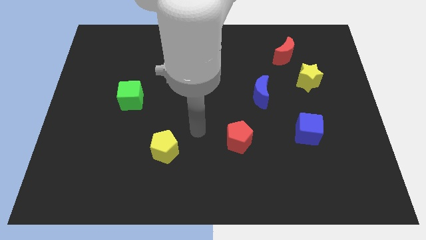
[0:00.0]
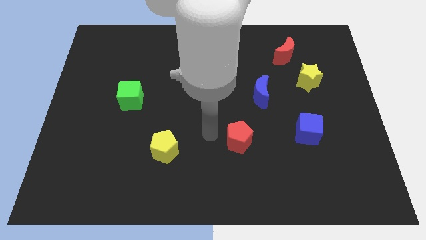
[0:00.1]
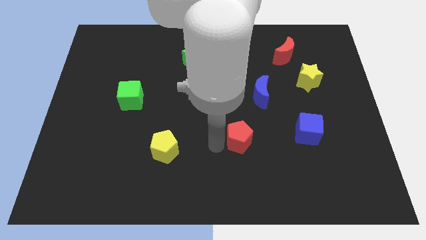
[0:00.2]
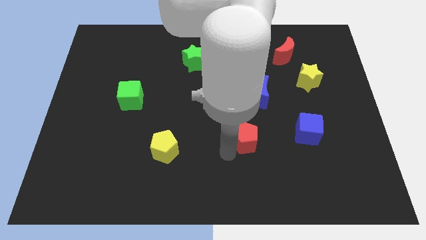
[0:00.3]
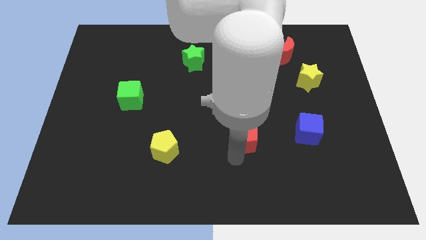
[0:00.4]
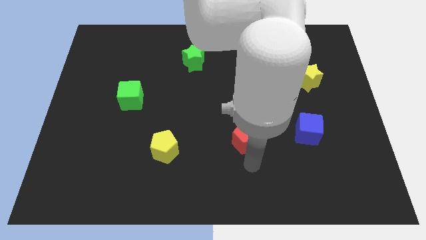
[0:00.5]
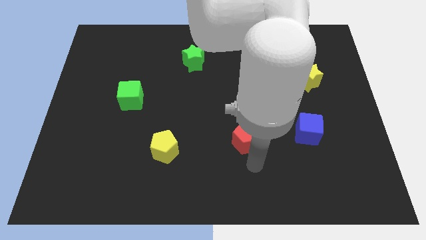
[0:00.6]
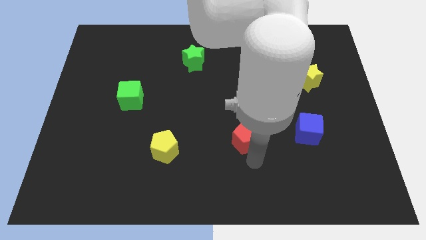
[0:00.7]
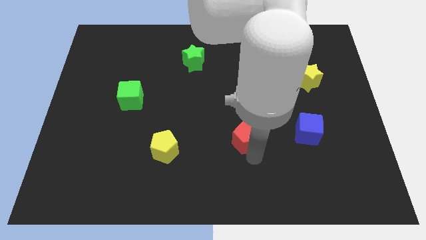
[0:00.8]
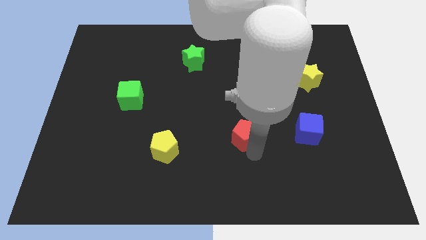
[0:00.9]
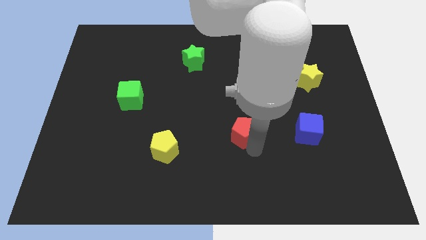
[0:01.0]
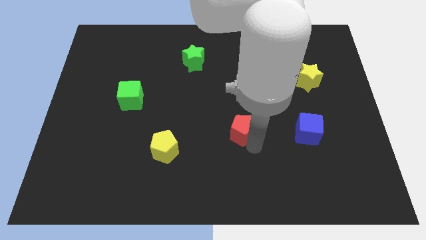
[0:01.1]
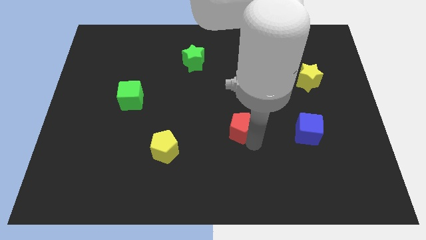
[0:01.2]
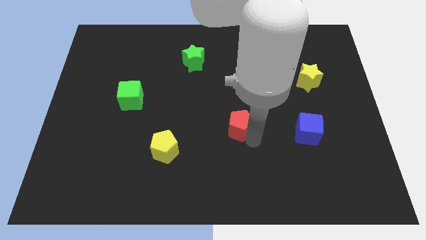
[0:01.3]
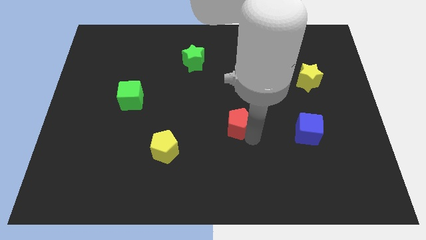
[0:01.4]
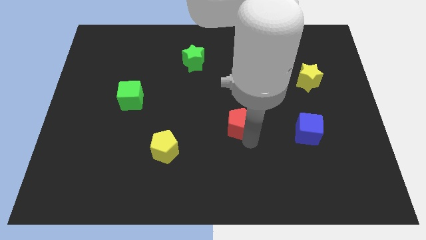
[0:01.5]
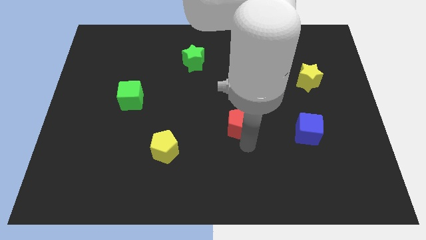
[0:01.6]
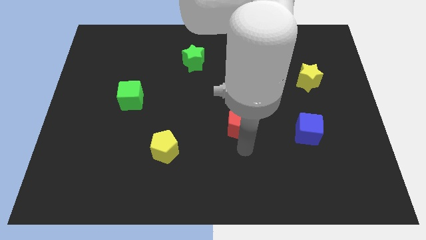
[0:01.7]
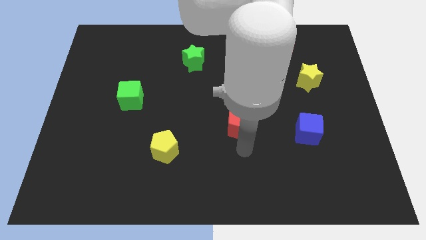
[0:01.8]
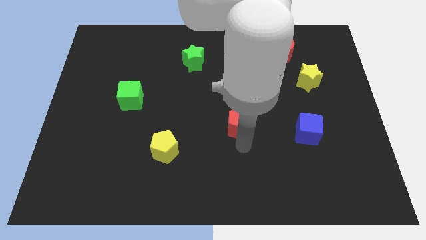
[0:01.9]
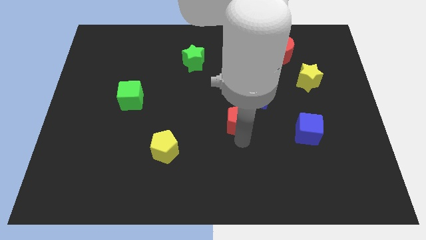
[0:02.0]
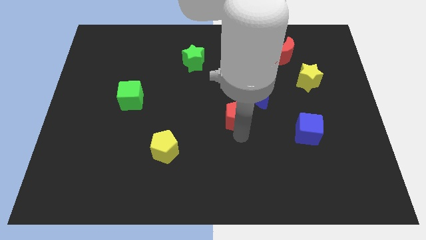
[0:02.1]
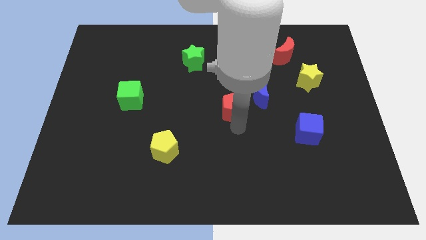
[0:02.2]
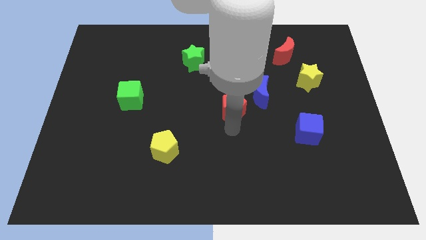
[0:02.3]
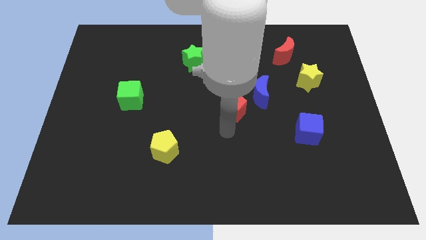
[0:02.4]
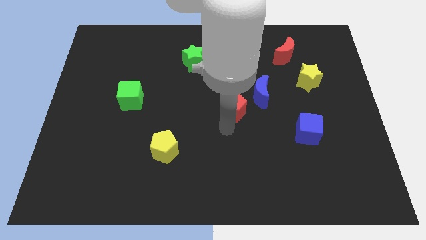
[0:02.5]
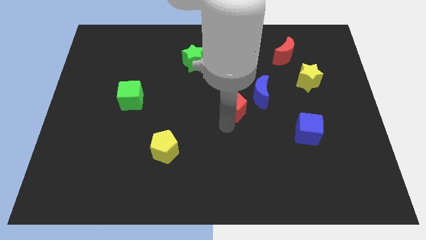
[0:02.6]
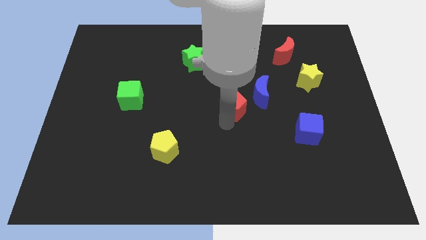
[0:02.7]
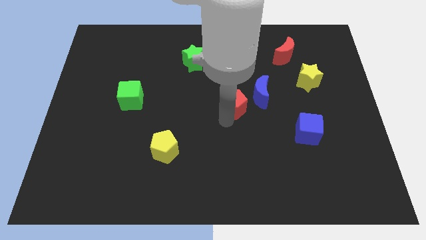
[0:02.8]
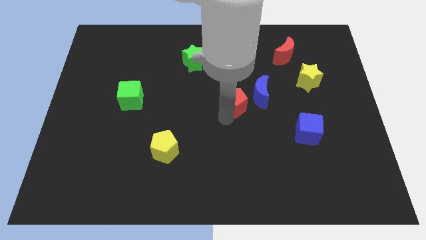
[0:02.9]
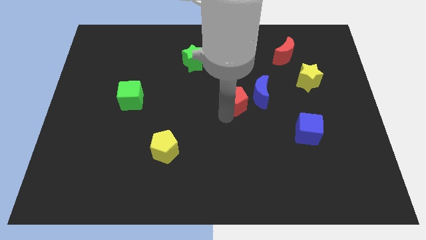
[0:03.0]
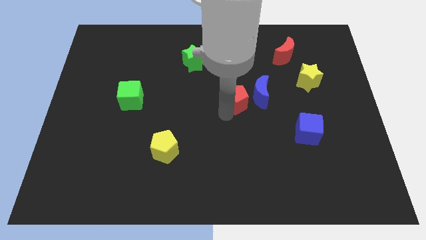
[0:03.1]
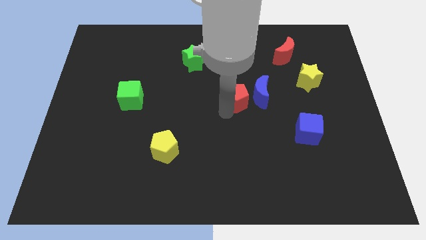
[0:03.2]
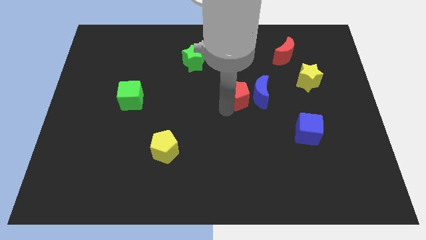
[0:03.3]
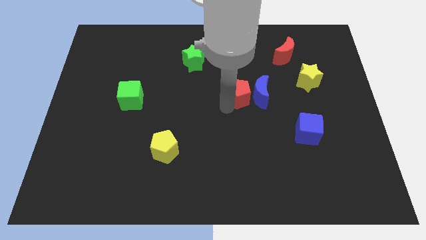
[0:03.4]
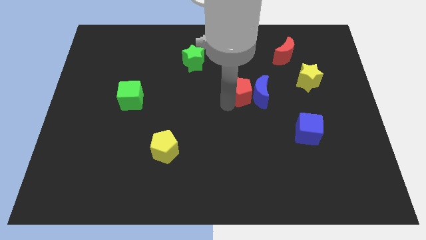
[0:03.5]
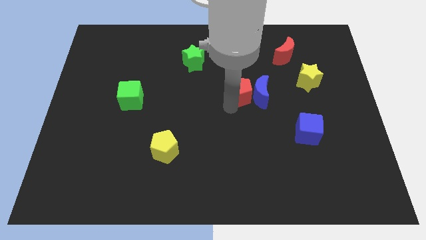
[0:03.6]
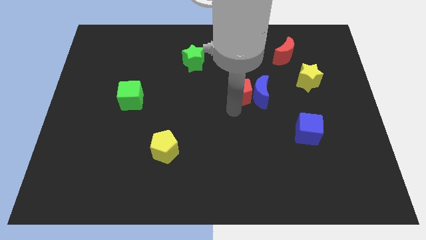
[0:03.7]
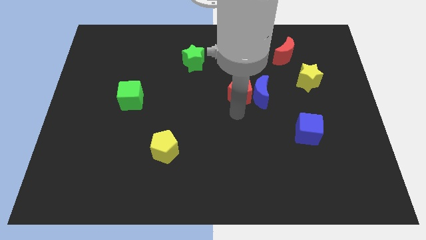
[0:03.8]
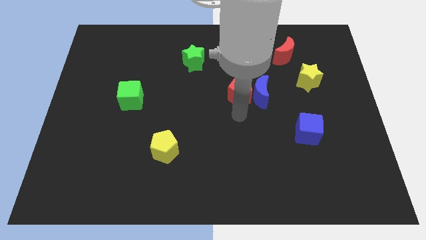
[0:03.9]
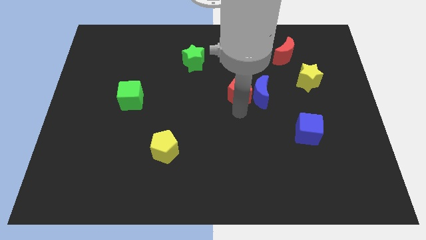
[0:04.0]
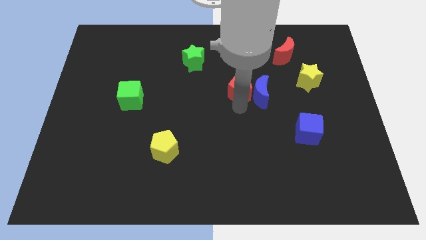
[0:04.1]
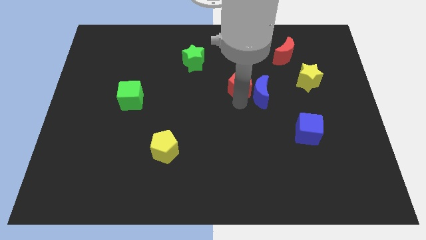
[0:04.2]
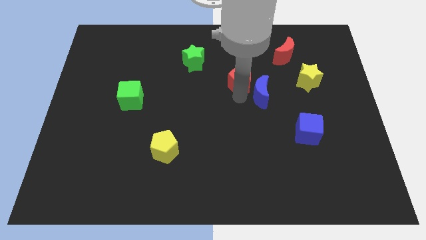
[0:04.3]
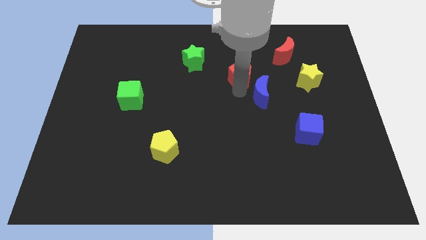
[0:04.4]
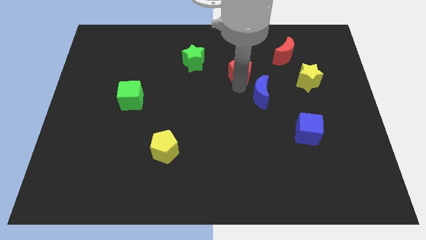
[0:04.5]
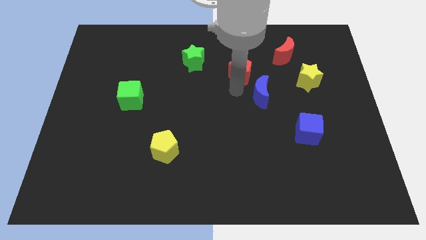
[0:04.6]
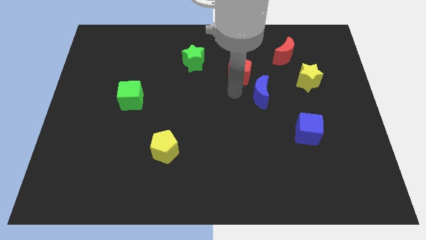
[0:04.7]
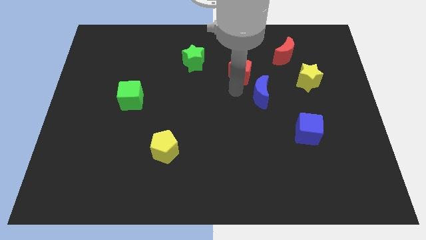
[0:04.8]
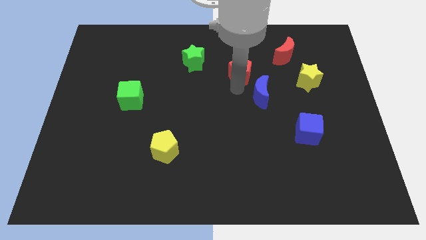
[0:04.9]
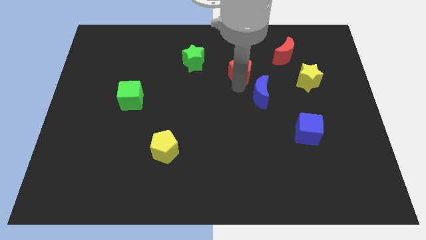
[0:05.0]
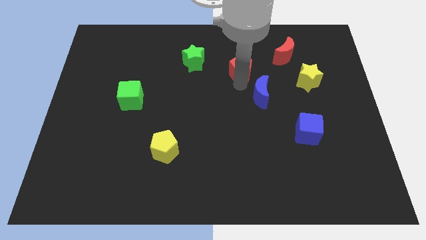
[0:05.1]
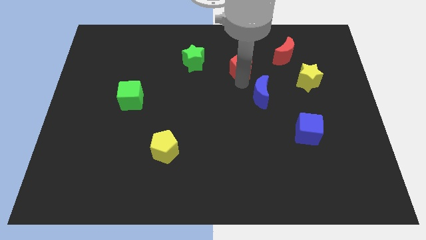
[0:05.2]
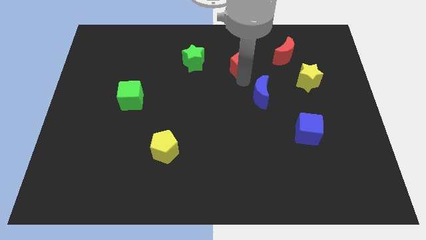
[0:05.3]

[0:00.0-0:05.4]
put the red pentagon to the left side of the red moon
